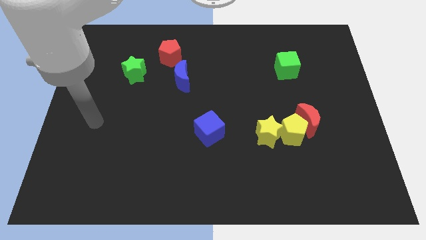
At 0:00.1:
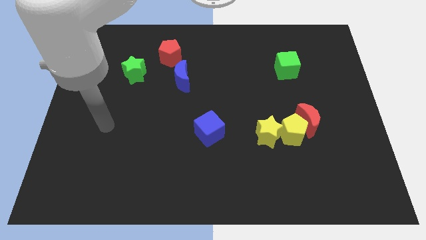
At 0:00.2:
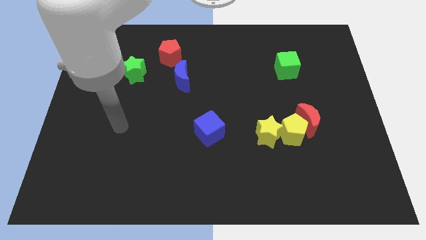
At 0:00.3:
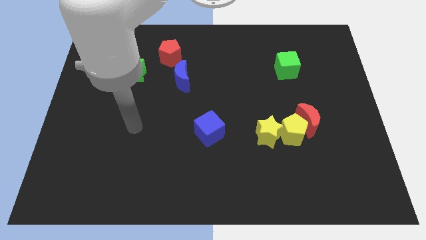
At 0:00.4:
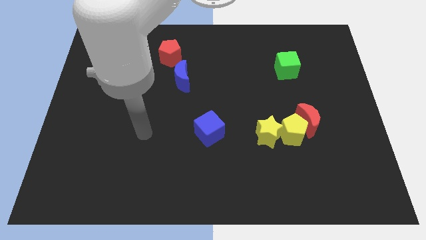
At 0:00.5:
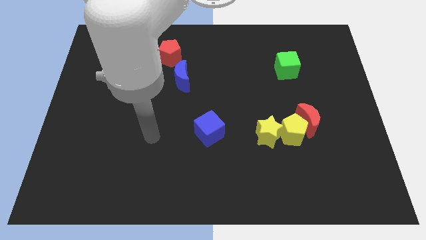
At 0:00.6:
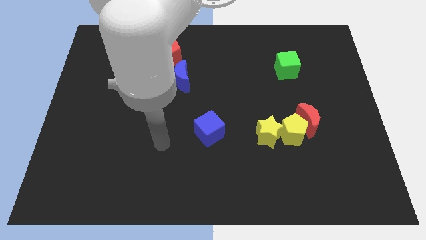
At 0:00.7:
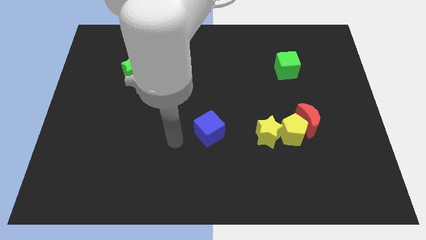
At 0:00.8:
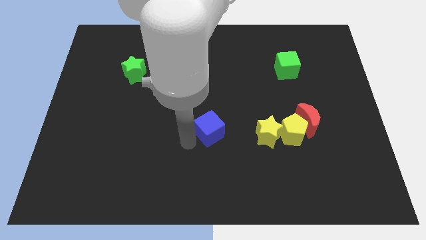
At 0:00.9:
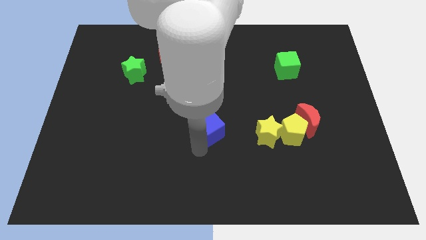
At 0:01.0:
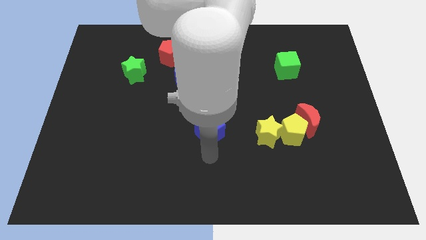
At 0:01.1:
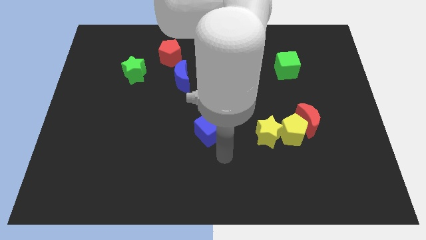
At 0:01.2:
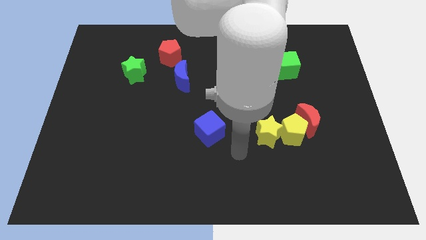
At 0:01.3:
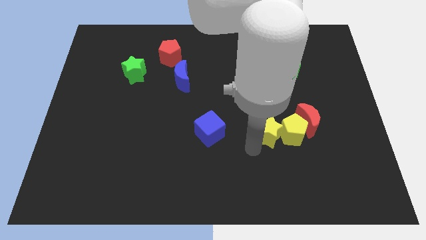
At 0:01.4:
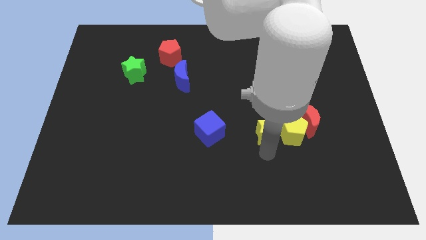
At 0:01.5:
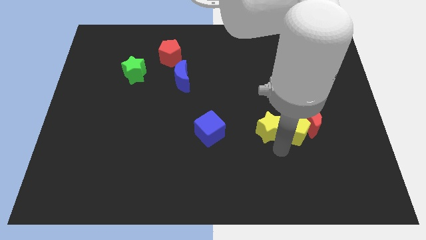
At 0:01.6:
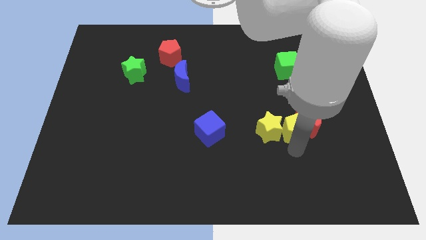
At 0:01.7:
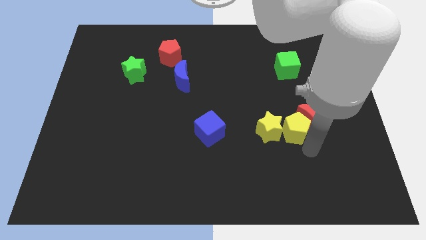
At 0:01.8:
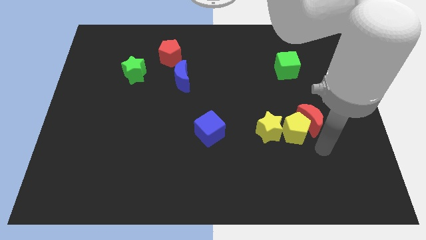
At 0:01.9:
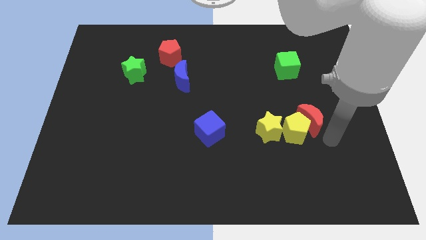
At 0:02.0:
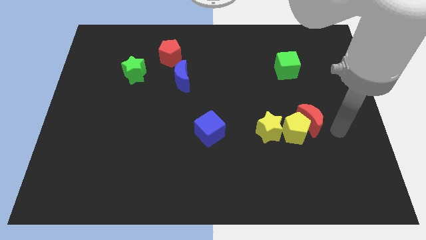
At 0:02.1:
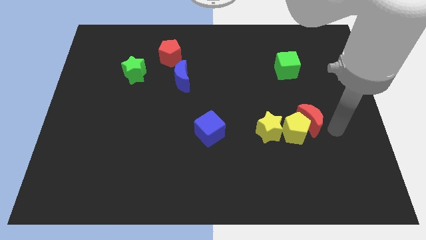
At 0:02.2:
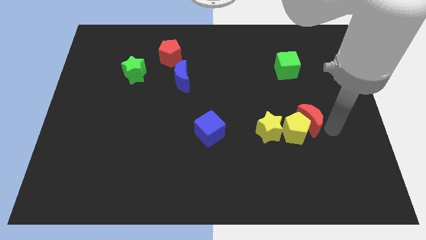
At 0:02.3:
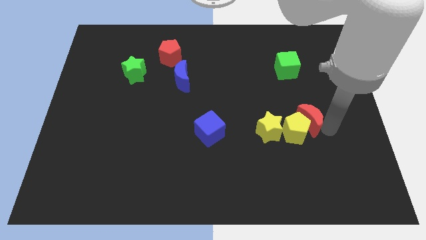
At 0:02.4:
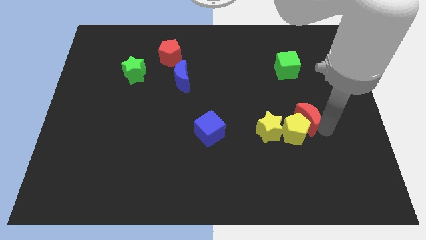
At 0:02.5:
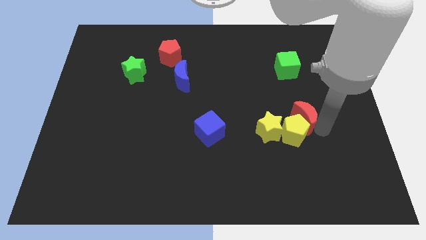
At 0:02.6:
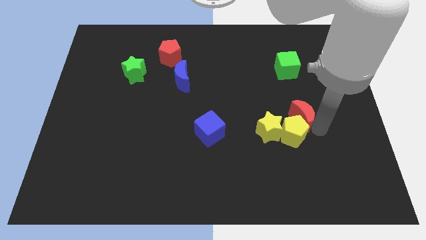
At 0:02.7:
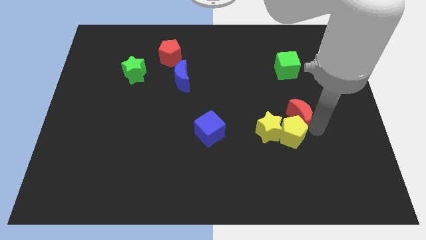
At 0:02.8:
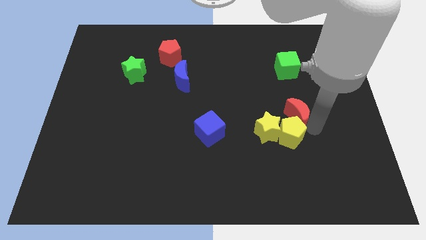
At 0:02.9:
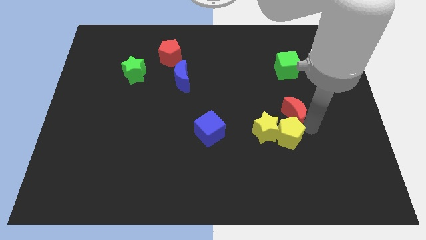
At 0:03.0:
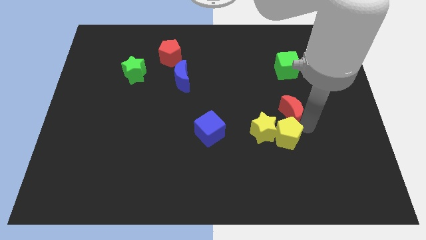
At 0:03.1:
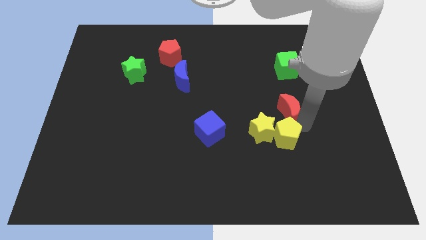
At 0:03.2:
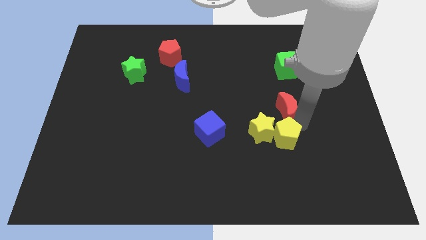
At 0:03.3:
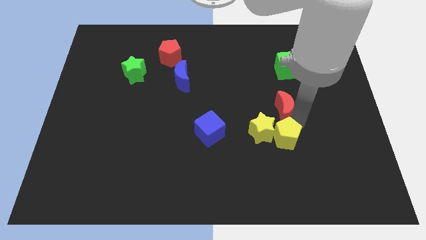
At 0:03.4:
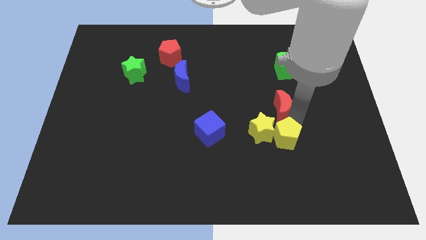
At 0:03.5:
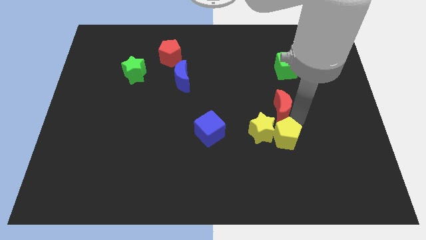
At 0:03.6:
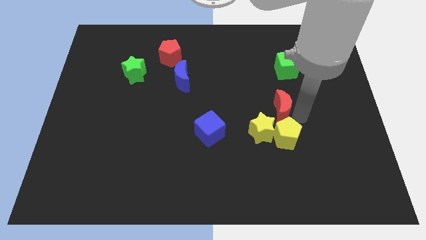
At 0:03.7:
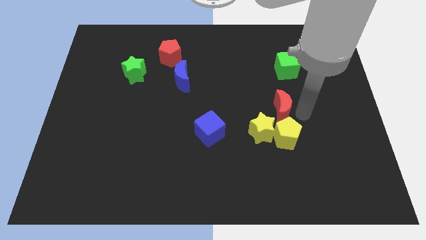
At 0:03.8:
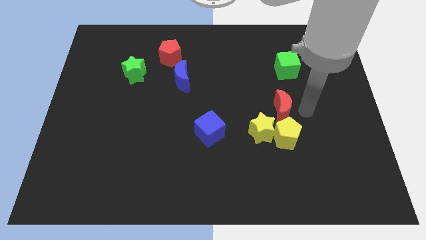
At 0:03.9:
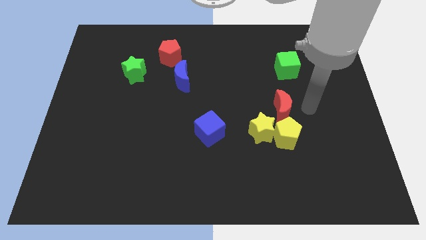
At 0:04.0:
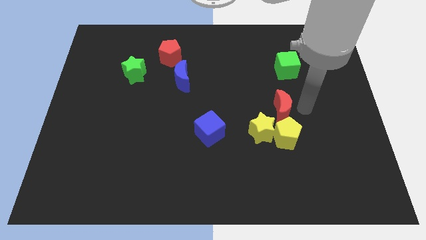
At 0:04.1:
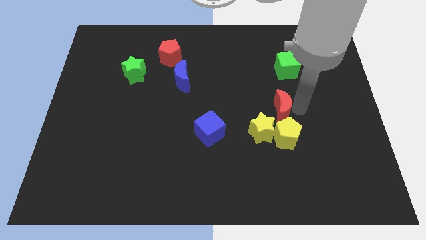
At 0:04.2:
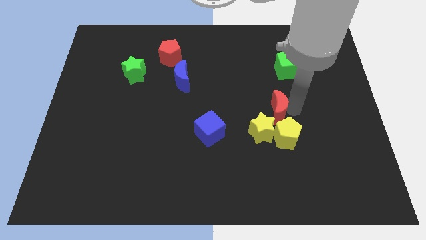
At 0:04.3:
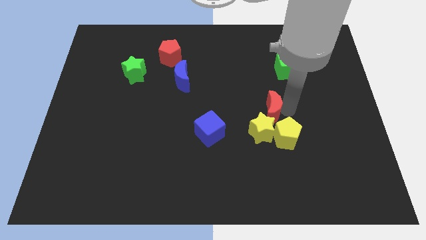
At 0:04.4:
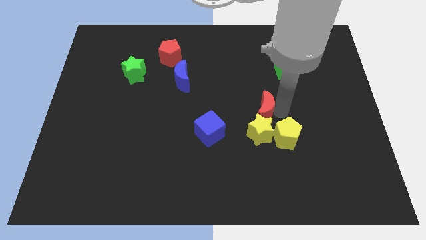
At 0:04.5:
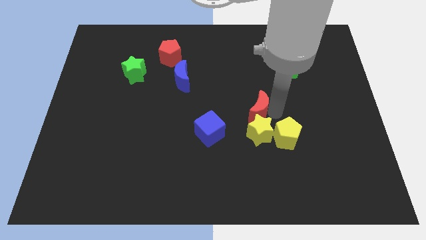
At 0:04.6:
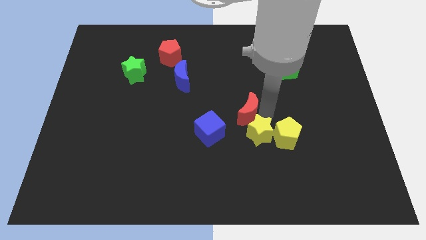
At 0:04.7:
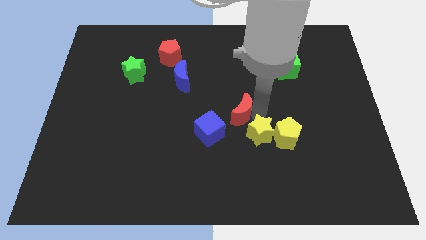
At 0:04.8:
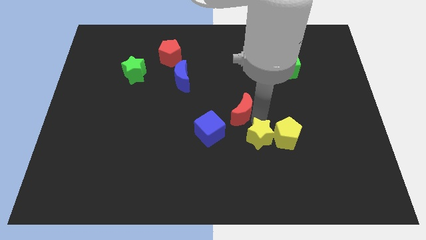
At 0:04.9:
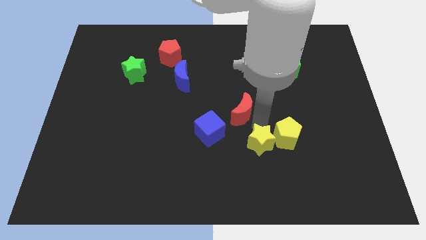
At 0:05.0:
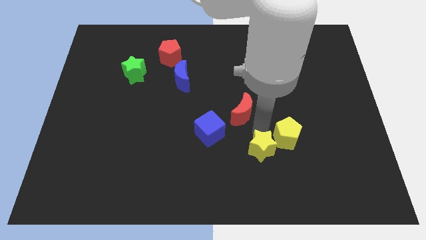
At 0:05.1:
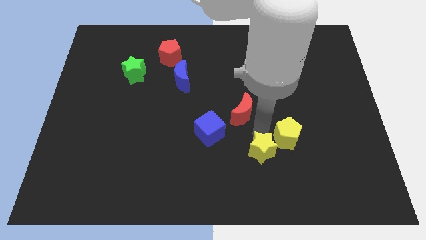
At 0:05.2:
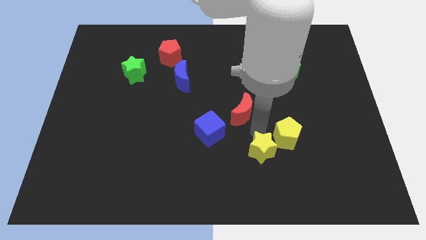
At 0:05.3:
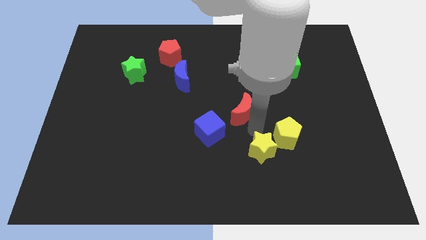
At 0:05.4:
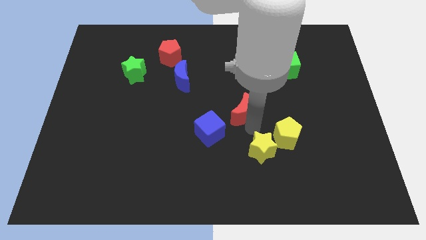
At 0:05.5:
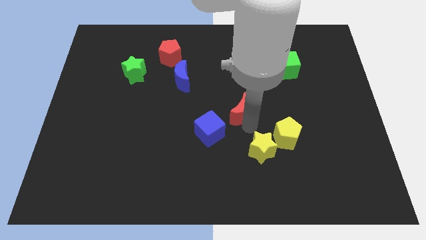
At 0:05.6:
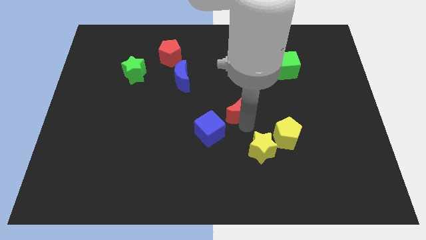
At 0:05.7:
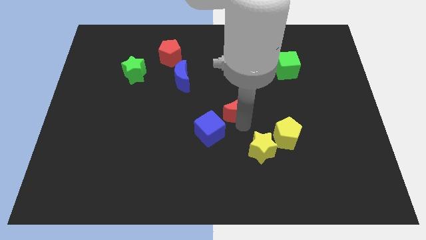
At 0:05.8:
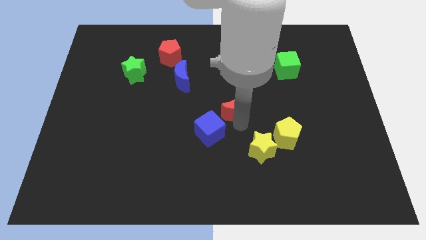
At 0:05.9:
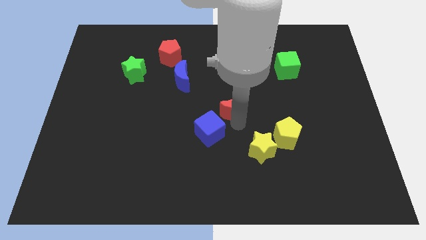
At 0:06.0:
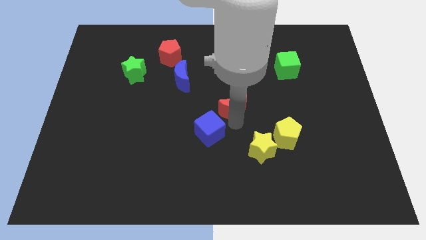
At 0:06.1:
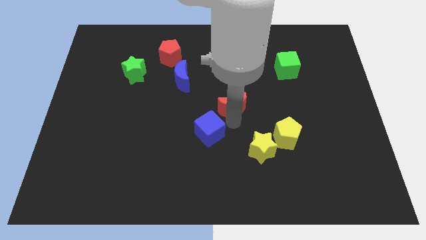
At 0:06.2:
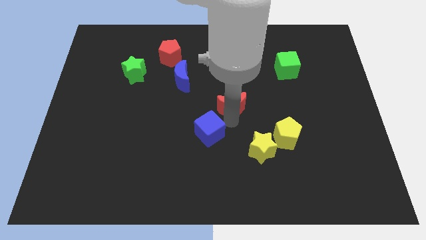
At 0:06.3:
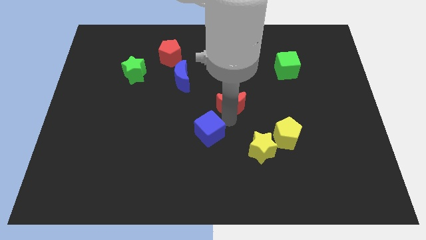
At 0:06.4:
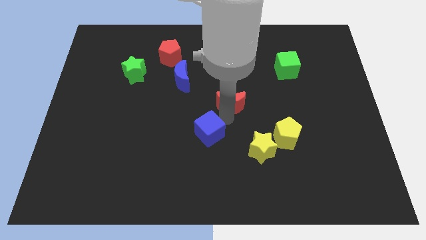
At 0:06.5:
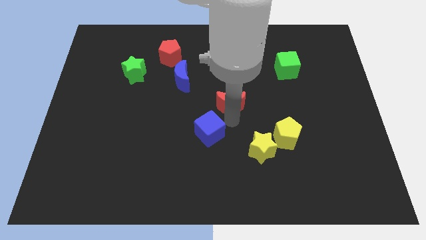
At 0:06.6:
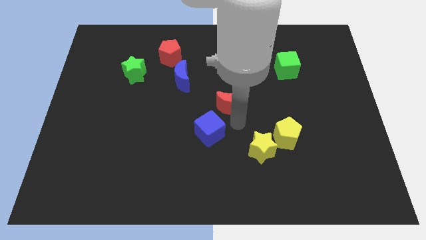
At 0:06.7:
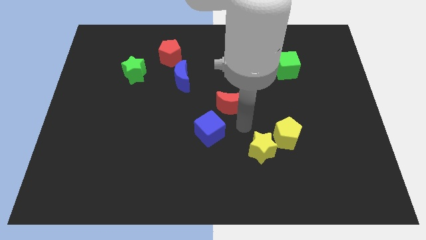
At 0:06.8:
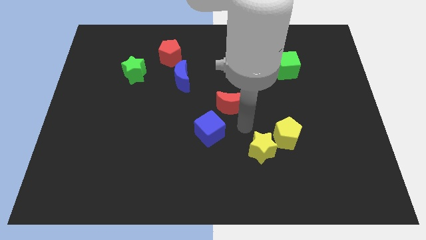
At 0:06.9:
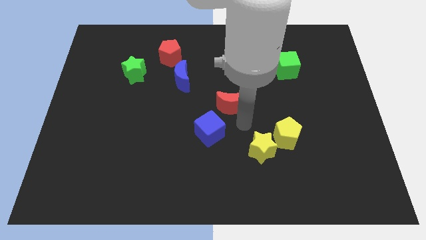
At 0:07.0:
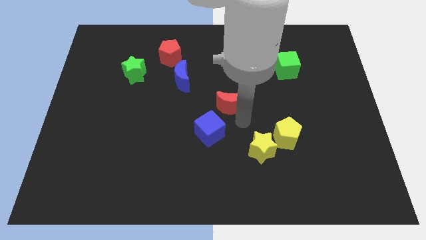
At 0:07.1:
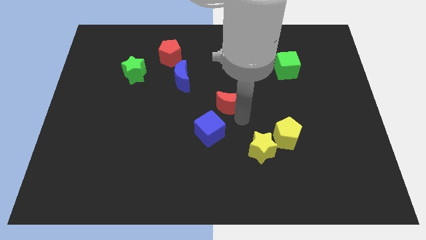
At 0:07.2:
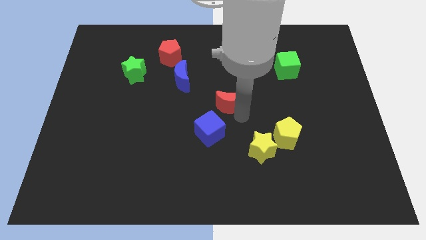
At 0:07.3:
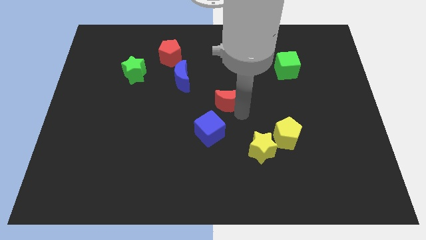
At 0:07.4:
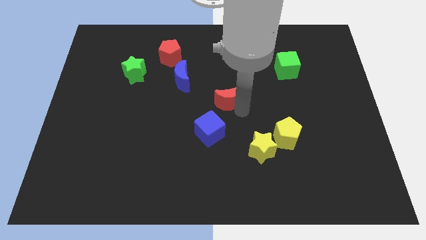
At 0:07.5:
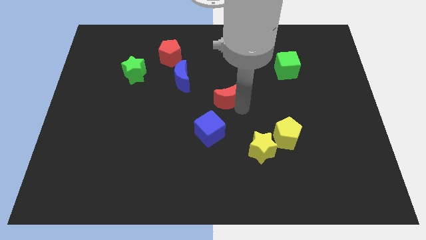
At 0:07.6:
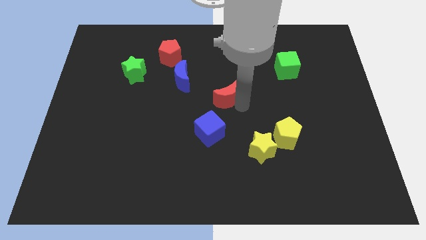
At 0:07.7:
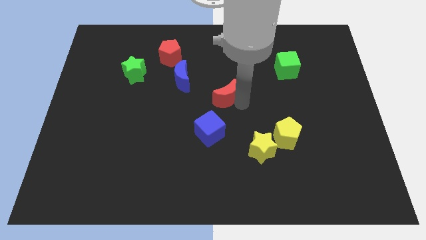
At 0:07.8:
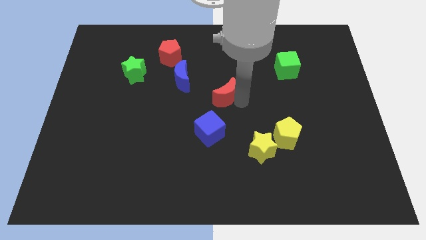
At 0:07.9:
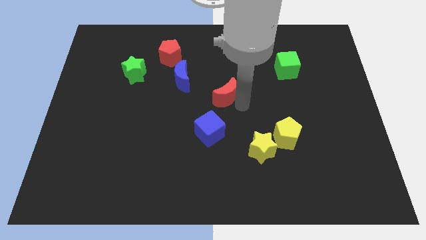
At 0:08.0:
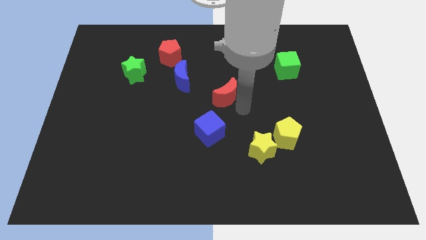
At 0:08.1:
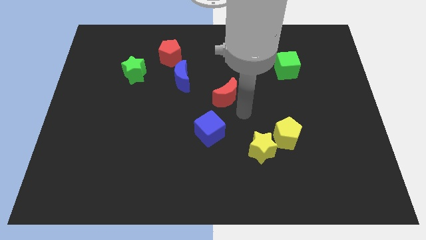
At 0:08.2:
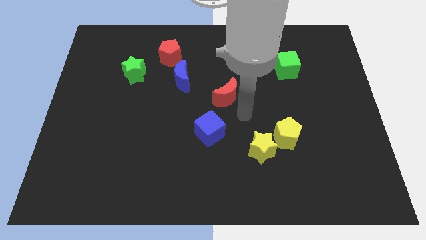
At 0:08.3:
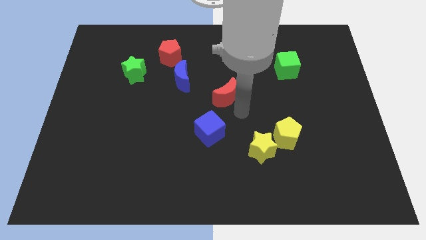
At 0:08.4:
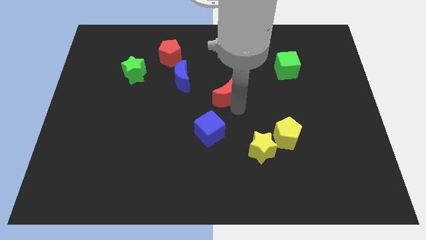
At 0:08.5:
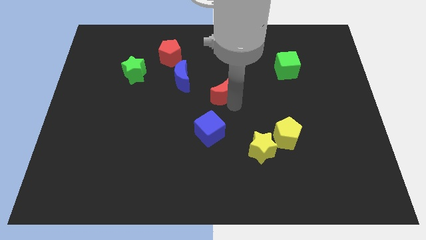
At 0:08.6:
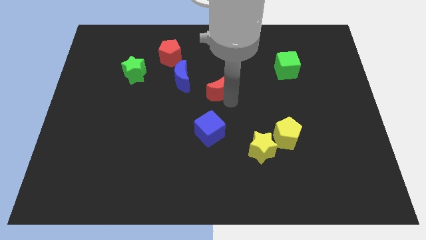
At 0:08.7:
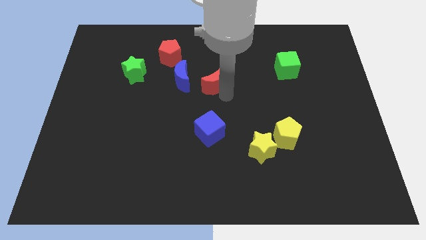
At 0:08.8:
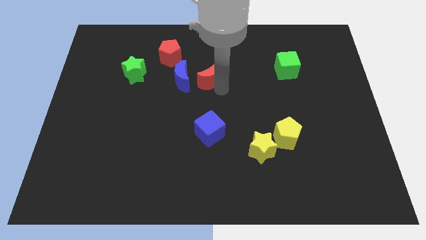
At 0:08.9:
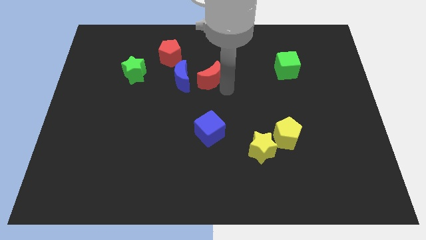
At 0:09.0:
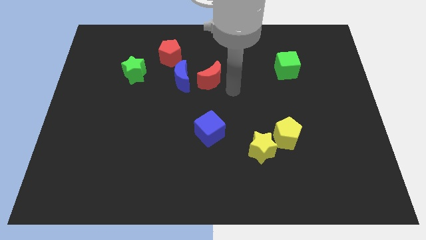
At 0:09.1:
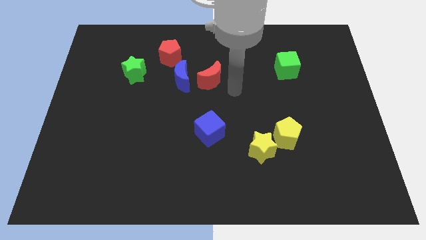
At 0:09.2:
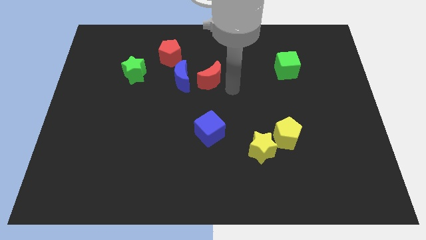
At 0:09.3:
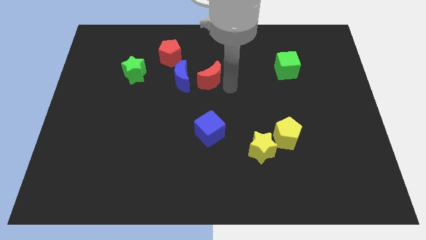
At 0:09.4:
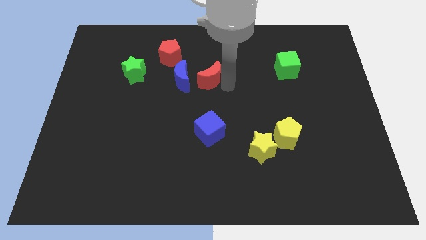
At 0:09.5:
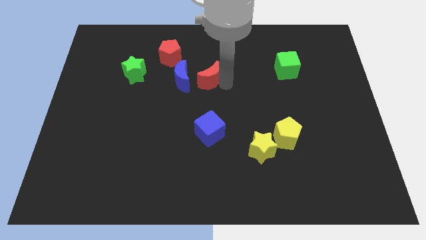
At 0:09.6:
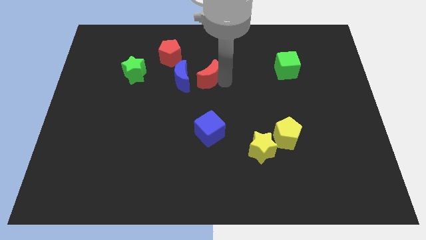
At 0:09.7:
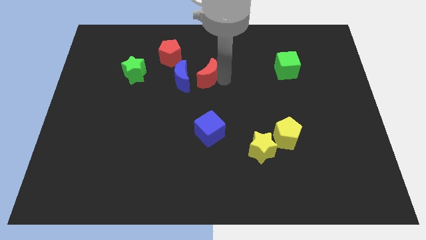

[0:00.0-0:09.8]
move the red moon diagonally down and to the right of the red pentagon
